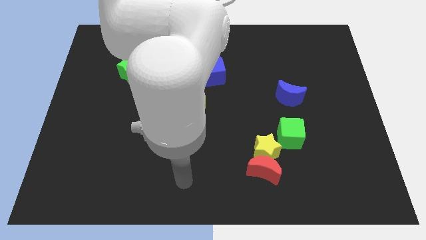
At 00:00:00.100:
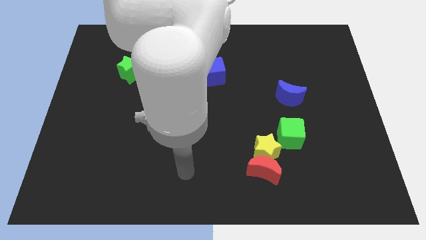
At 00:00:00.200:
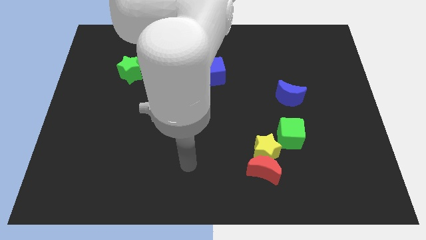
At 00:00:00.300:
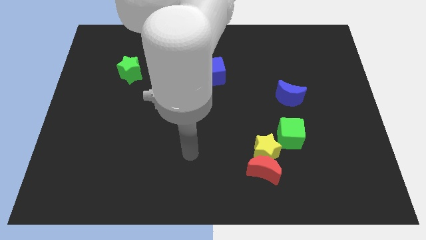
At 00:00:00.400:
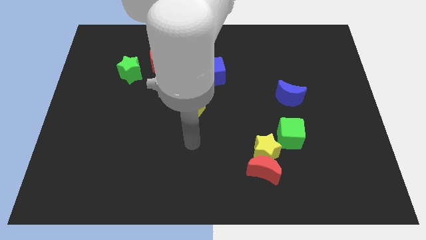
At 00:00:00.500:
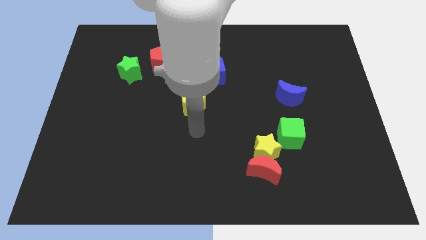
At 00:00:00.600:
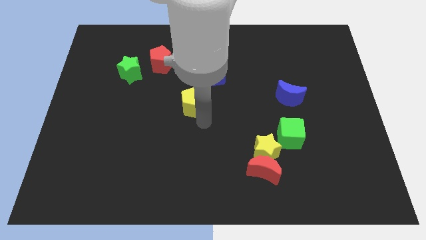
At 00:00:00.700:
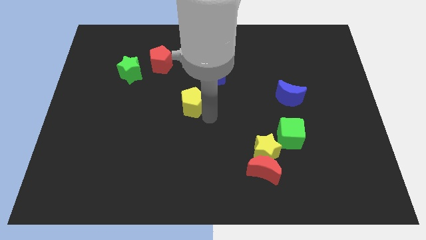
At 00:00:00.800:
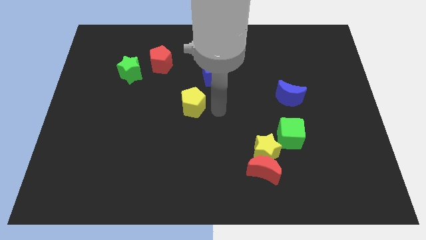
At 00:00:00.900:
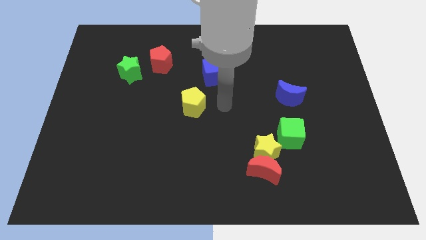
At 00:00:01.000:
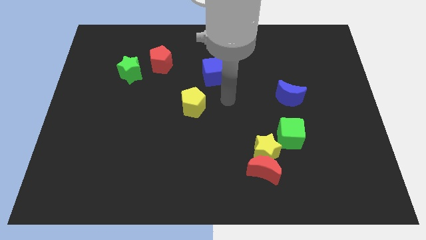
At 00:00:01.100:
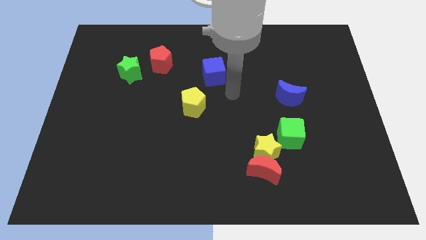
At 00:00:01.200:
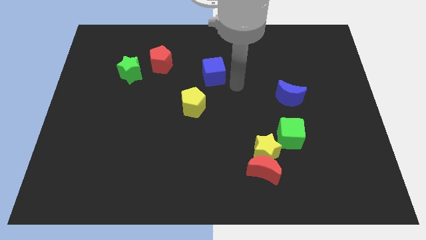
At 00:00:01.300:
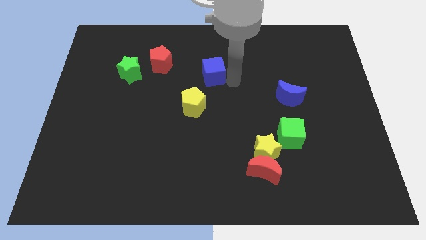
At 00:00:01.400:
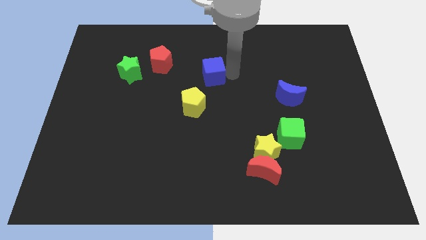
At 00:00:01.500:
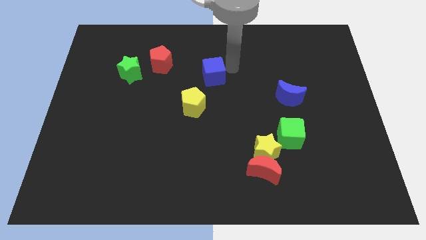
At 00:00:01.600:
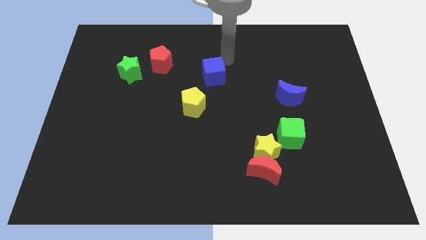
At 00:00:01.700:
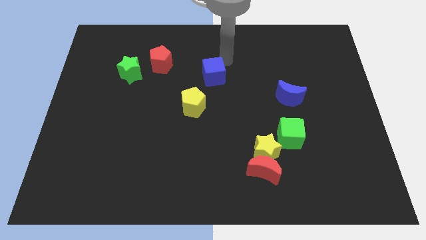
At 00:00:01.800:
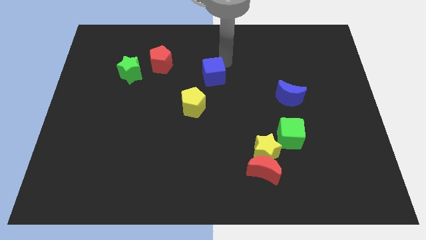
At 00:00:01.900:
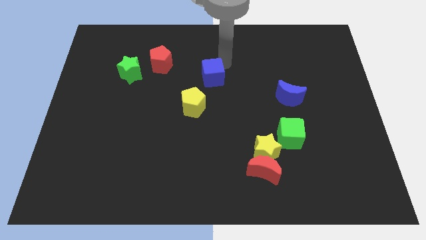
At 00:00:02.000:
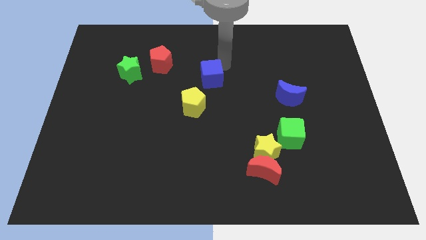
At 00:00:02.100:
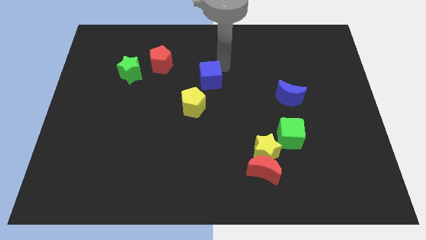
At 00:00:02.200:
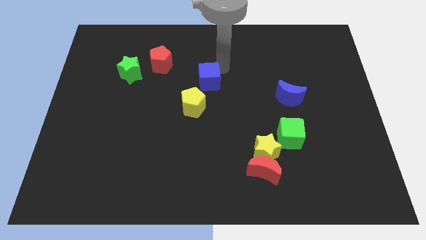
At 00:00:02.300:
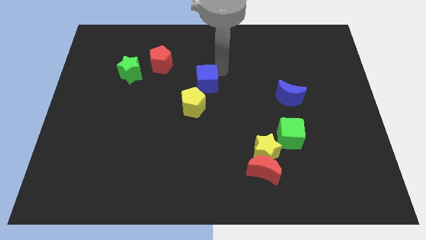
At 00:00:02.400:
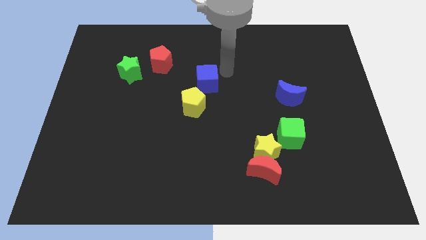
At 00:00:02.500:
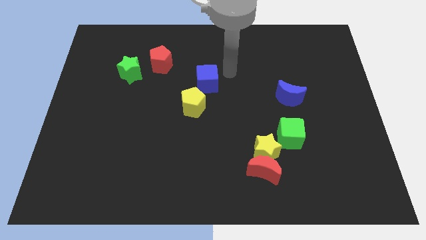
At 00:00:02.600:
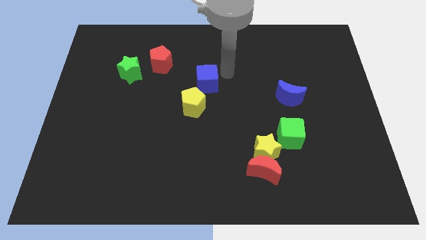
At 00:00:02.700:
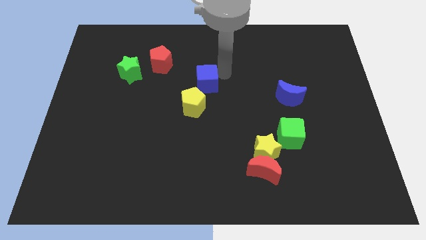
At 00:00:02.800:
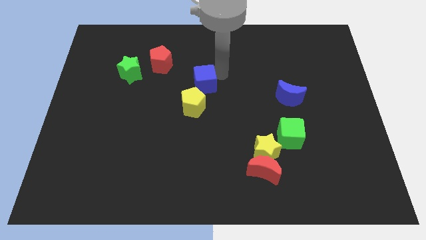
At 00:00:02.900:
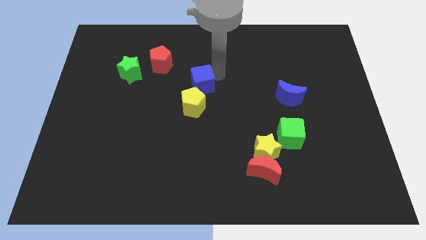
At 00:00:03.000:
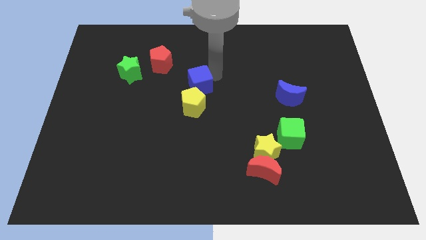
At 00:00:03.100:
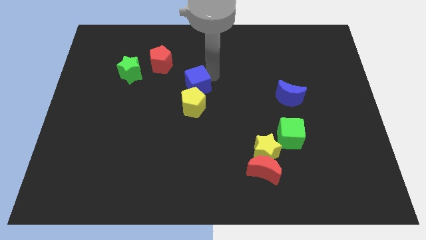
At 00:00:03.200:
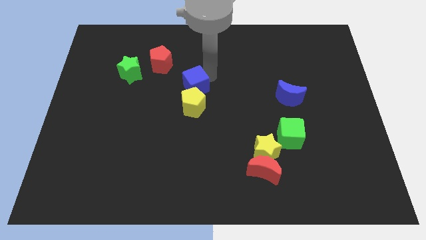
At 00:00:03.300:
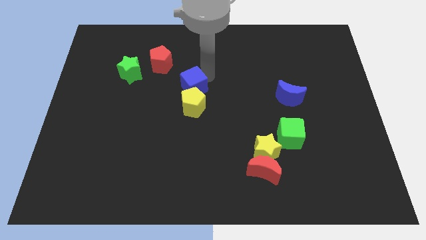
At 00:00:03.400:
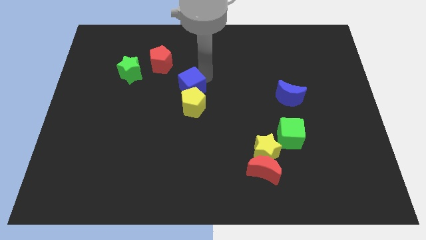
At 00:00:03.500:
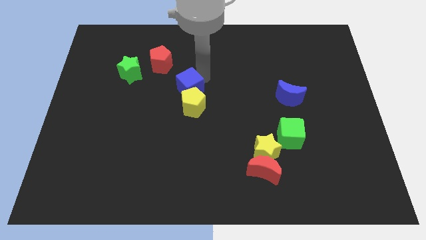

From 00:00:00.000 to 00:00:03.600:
slide the blue cube a little down and to the left diagonally

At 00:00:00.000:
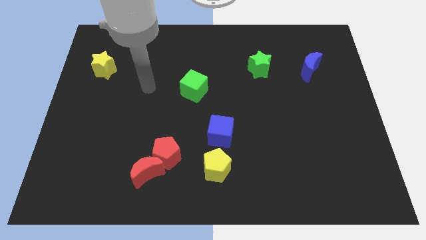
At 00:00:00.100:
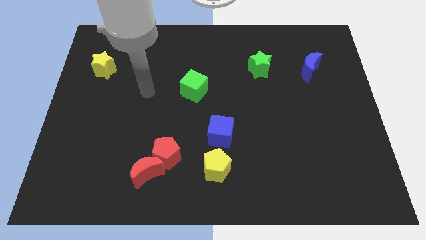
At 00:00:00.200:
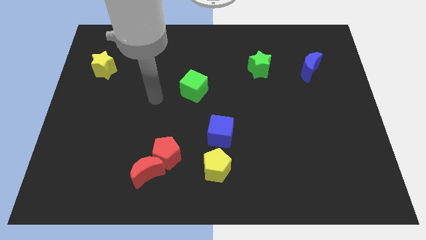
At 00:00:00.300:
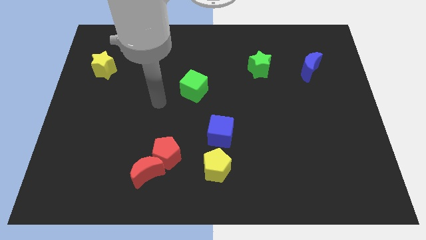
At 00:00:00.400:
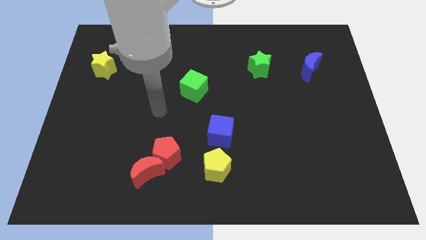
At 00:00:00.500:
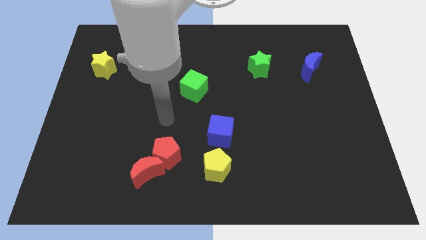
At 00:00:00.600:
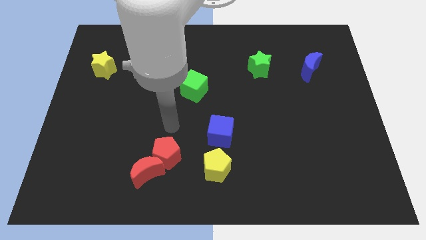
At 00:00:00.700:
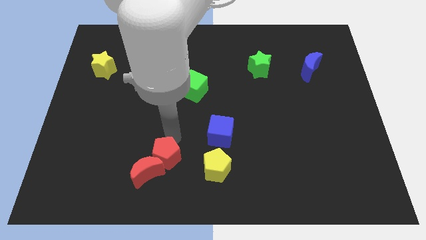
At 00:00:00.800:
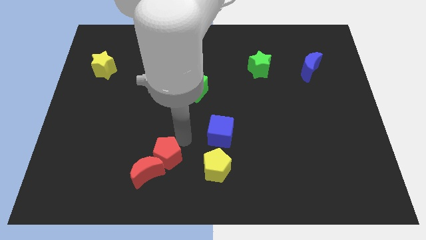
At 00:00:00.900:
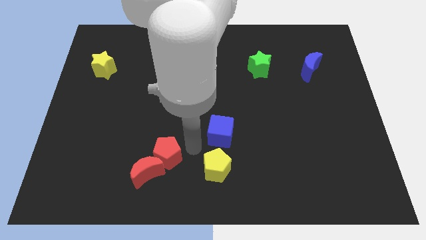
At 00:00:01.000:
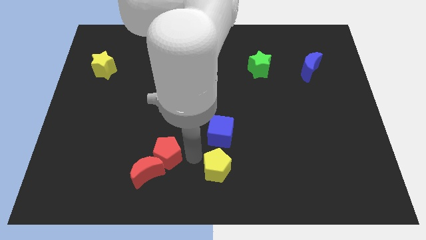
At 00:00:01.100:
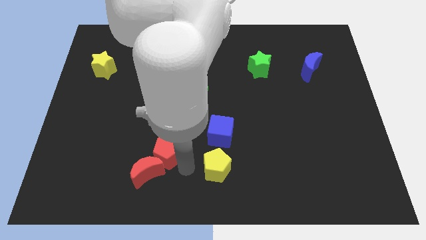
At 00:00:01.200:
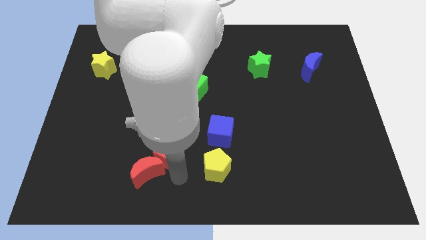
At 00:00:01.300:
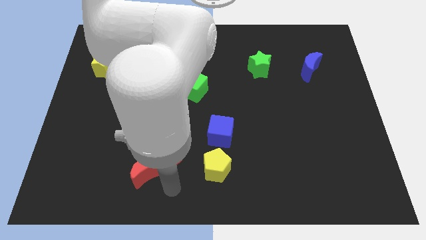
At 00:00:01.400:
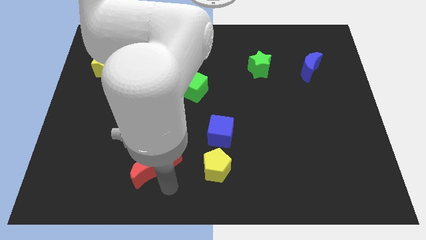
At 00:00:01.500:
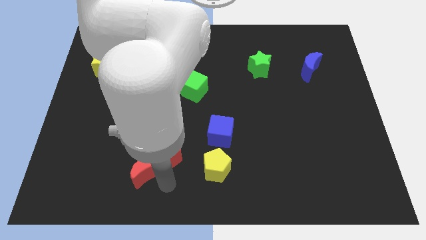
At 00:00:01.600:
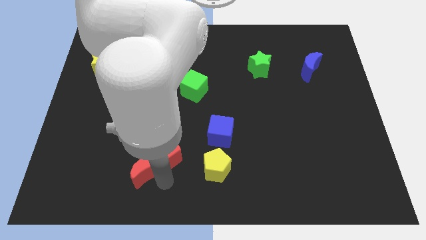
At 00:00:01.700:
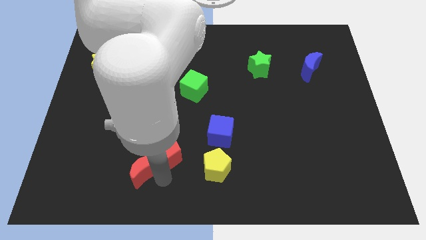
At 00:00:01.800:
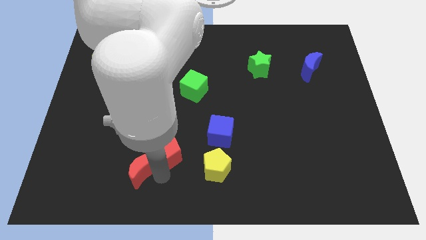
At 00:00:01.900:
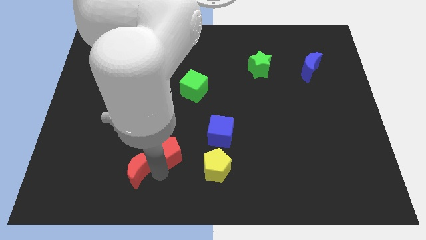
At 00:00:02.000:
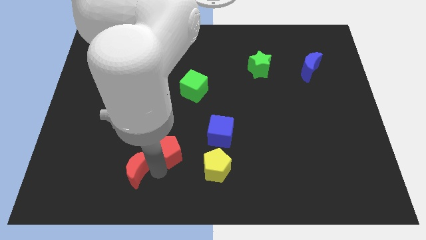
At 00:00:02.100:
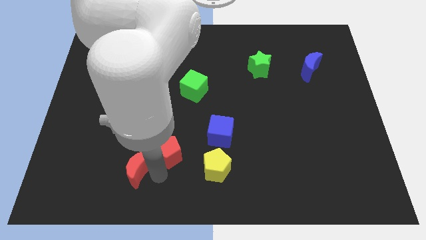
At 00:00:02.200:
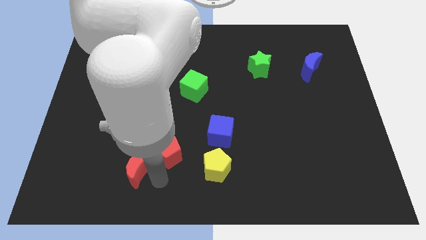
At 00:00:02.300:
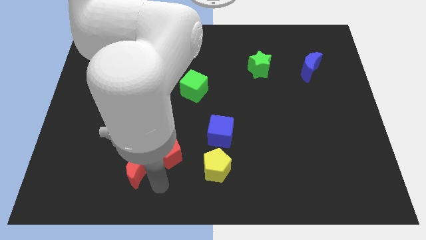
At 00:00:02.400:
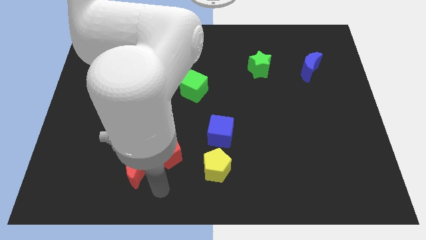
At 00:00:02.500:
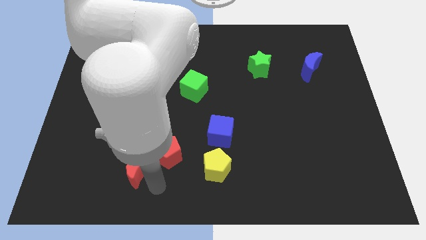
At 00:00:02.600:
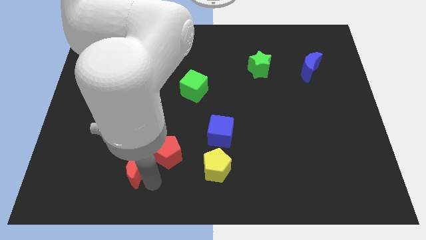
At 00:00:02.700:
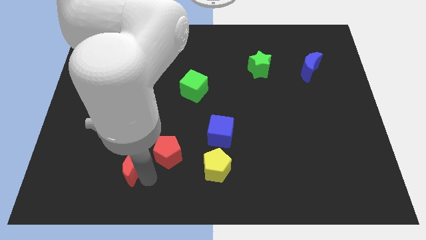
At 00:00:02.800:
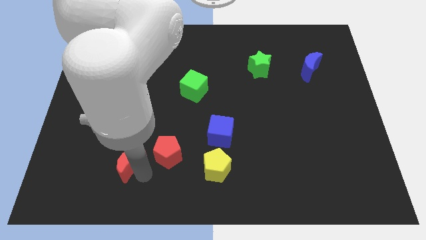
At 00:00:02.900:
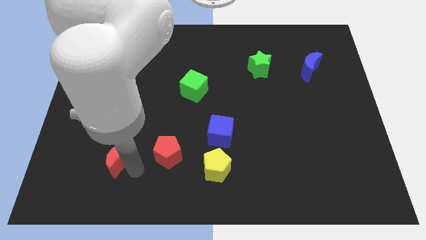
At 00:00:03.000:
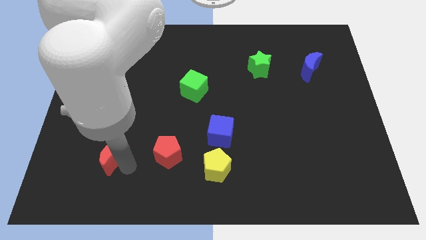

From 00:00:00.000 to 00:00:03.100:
slide the red moon diagonally up and left slightly
